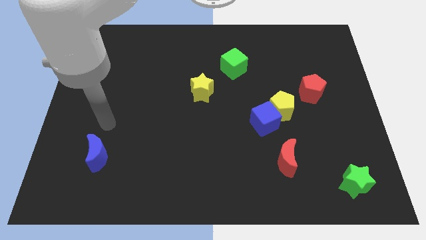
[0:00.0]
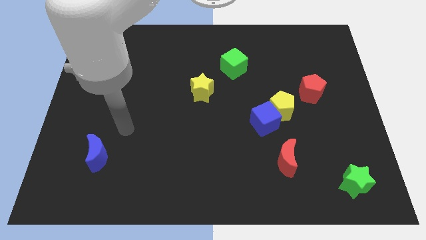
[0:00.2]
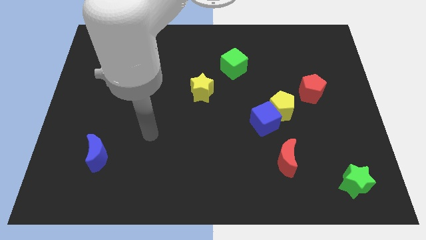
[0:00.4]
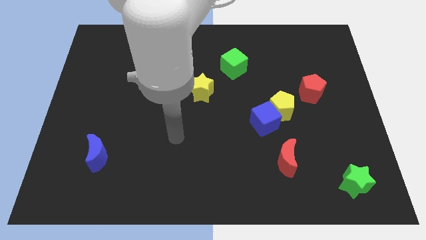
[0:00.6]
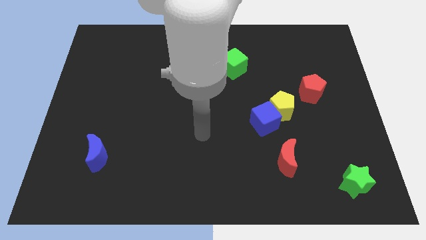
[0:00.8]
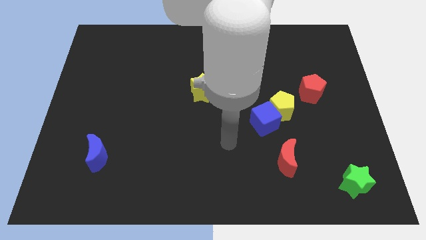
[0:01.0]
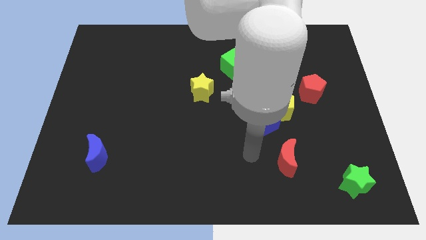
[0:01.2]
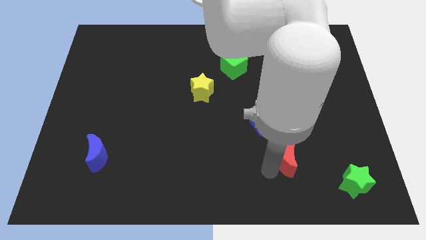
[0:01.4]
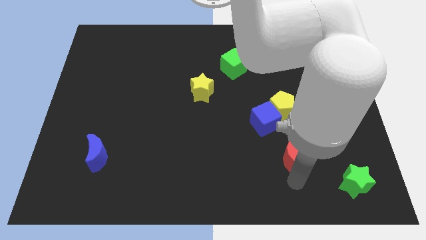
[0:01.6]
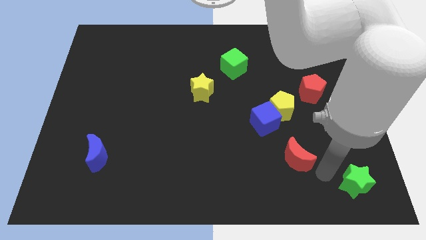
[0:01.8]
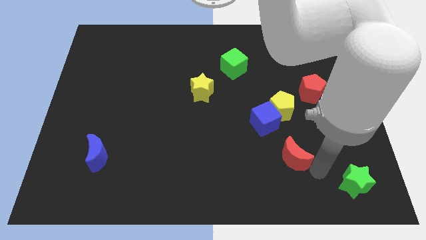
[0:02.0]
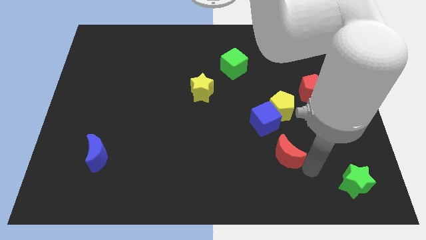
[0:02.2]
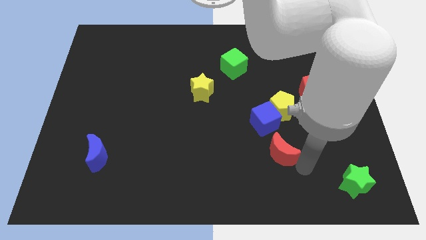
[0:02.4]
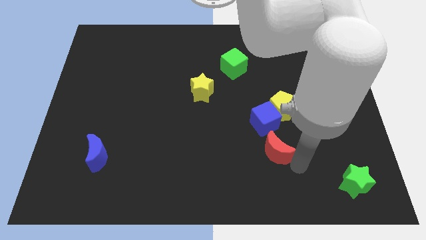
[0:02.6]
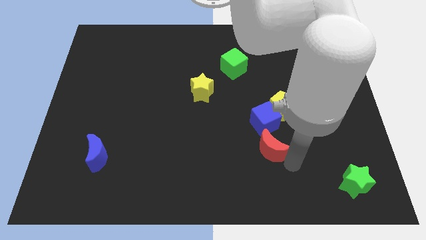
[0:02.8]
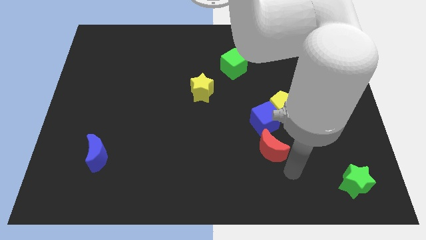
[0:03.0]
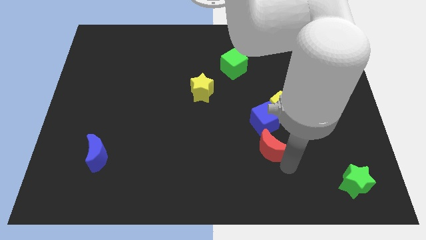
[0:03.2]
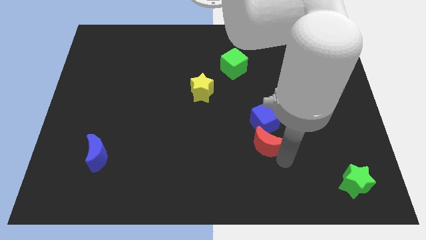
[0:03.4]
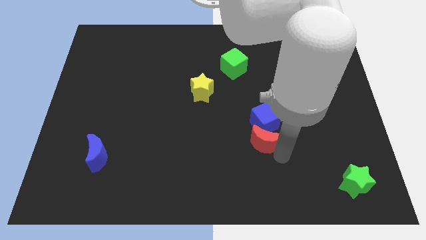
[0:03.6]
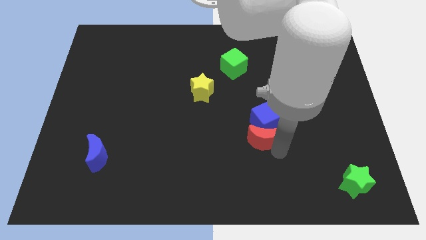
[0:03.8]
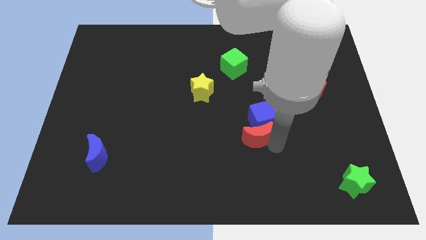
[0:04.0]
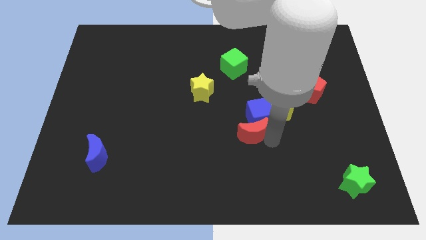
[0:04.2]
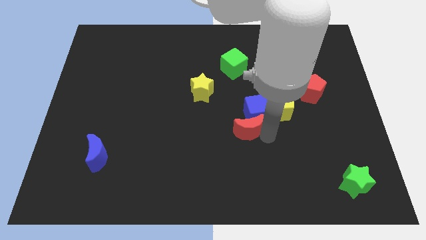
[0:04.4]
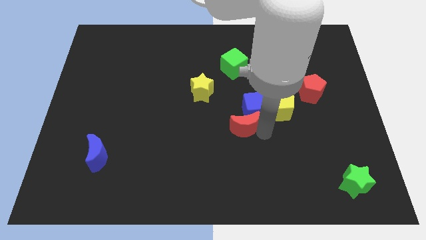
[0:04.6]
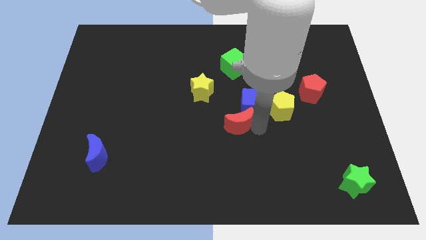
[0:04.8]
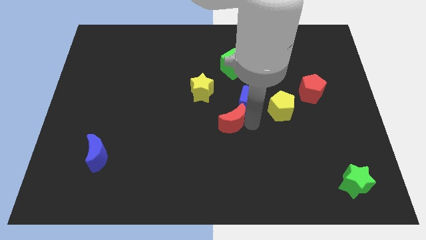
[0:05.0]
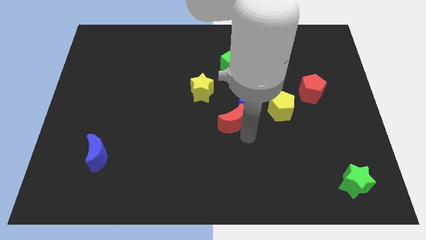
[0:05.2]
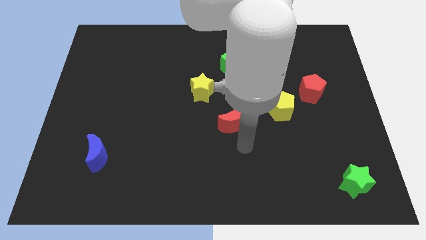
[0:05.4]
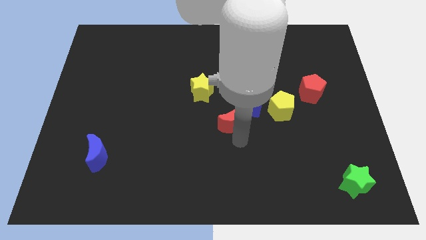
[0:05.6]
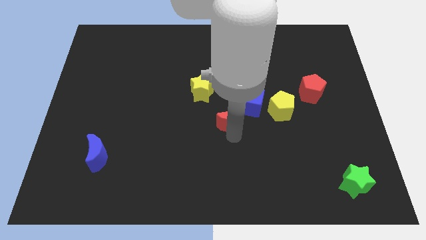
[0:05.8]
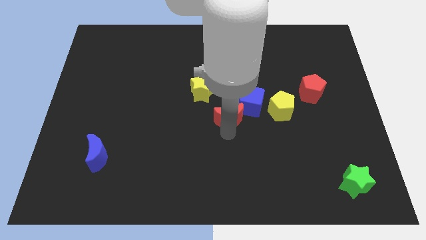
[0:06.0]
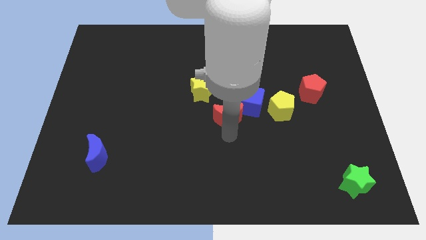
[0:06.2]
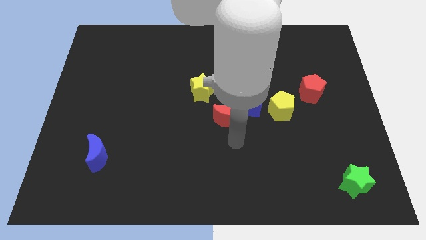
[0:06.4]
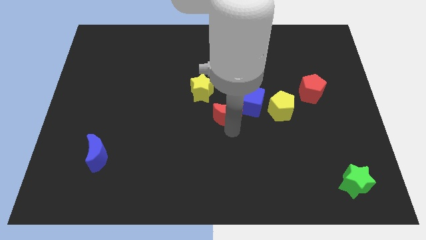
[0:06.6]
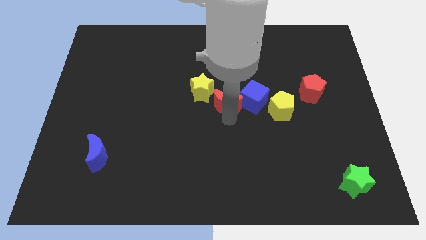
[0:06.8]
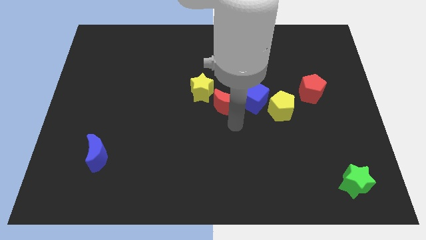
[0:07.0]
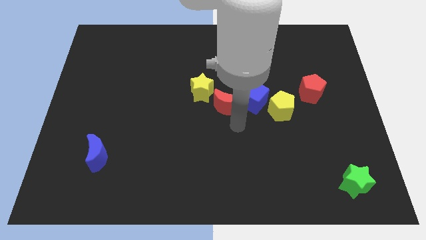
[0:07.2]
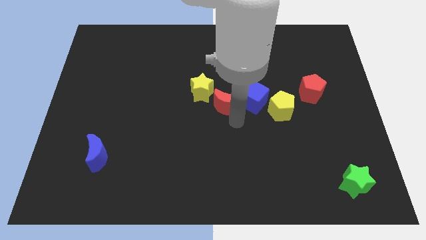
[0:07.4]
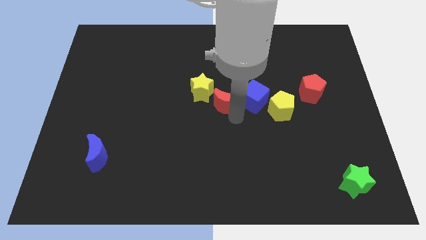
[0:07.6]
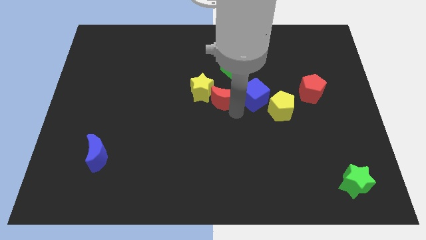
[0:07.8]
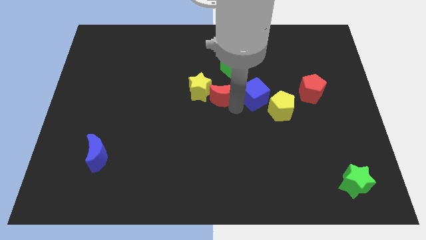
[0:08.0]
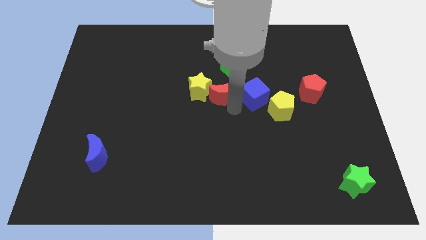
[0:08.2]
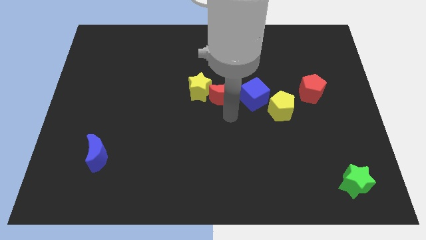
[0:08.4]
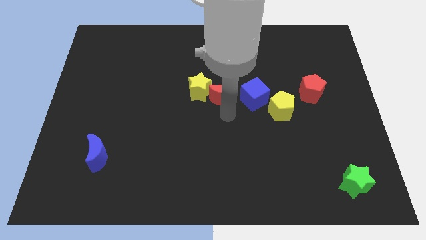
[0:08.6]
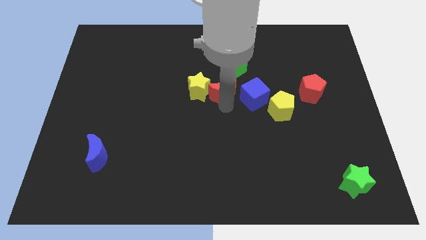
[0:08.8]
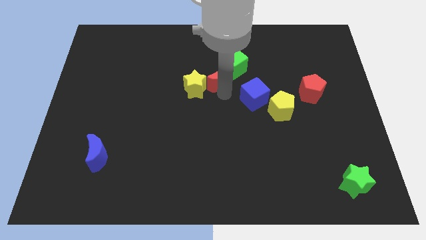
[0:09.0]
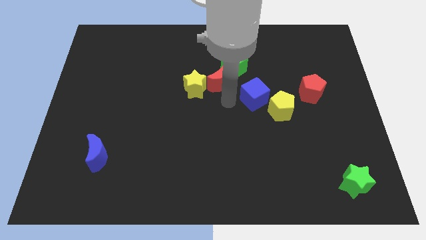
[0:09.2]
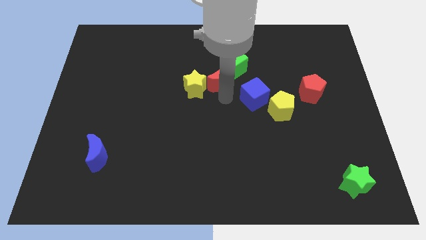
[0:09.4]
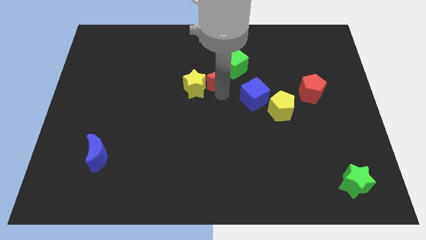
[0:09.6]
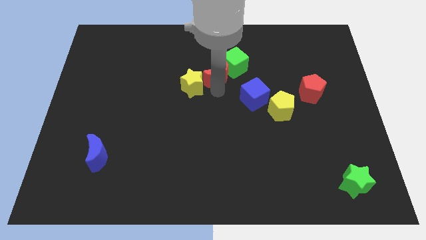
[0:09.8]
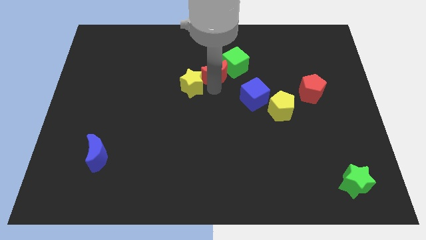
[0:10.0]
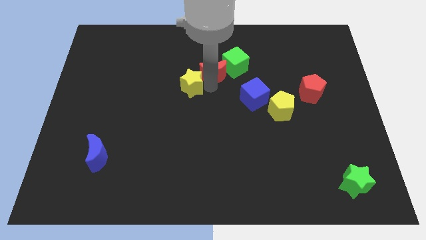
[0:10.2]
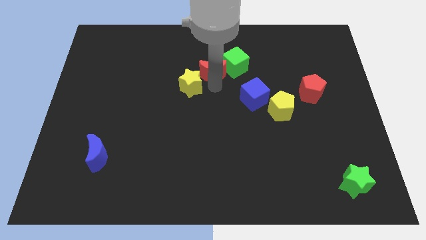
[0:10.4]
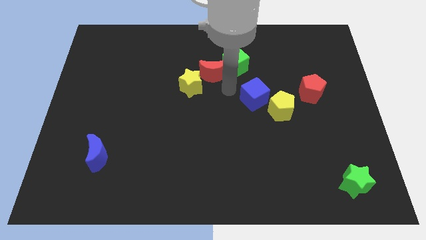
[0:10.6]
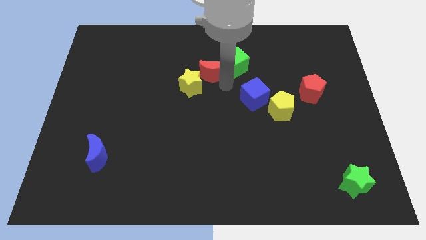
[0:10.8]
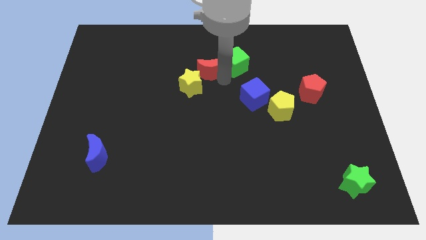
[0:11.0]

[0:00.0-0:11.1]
push the red moon to the top side of the yellow star

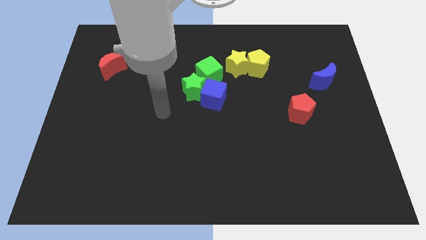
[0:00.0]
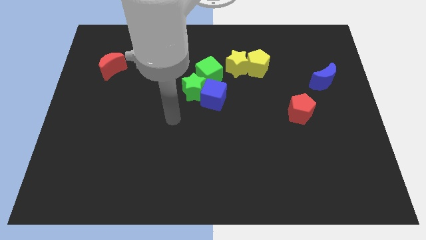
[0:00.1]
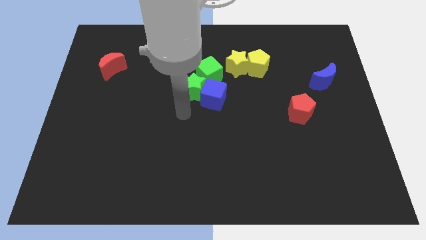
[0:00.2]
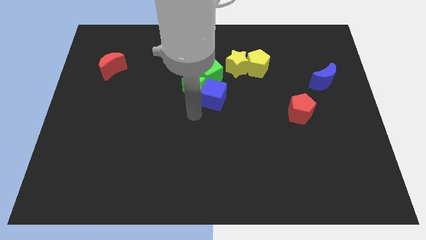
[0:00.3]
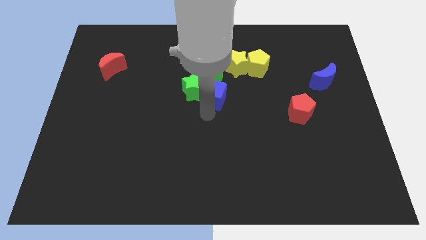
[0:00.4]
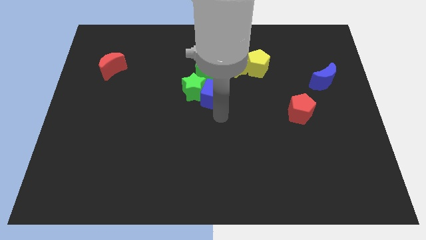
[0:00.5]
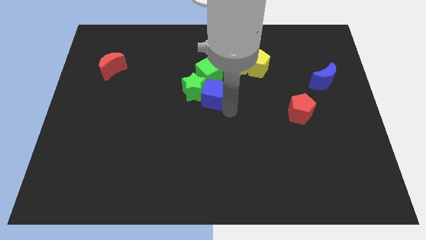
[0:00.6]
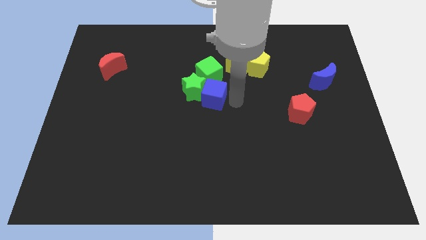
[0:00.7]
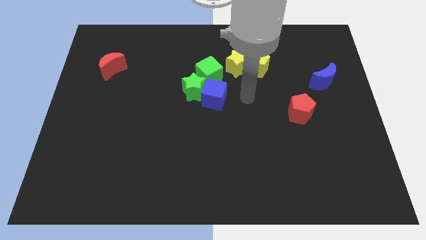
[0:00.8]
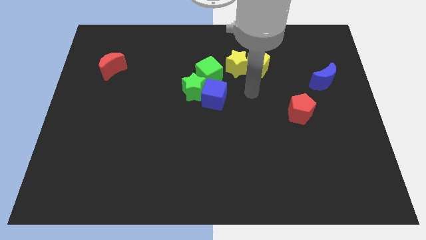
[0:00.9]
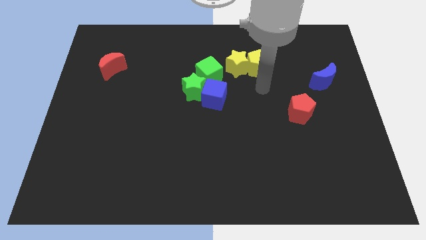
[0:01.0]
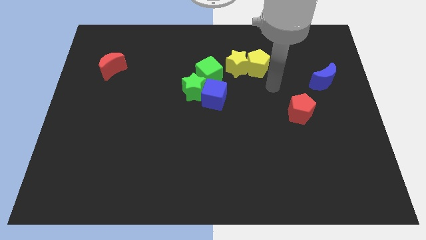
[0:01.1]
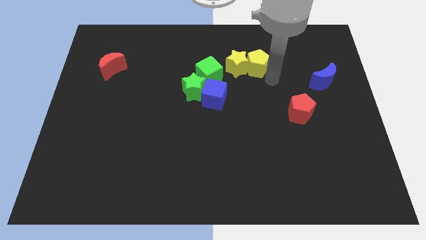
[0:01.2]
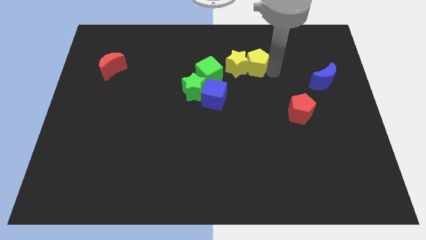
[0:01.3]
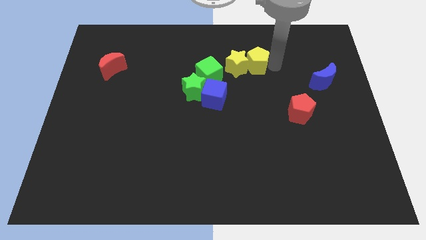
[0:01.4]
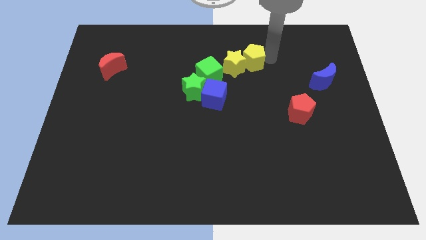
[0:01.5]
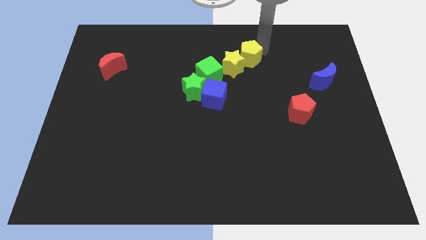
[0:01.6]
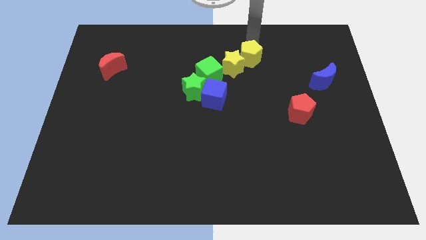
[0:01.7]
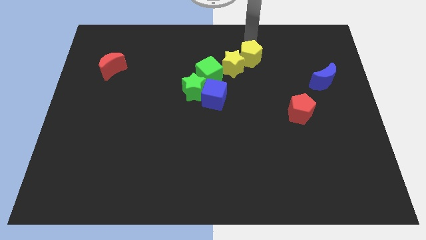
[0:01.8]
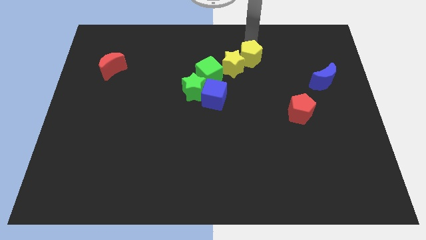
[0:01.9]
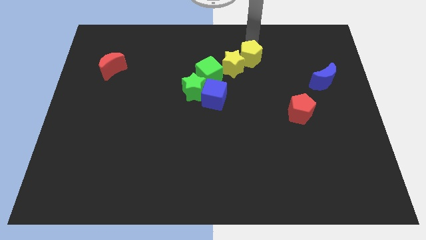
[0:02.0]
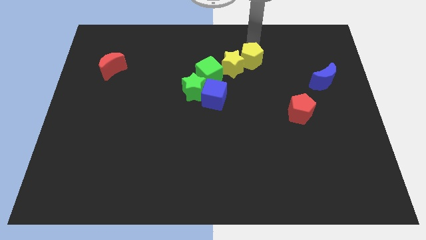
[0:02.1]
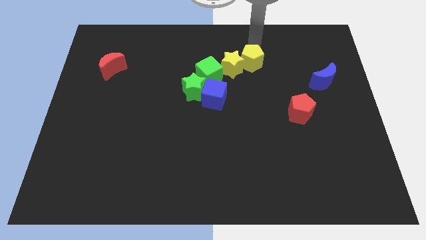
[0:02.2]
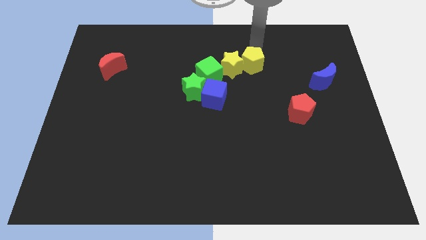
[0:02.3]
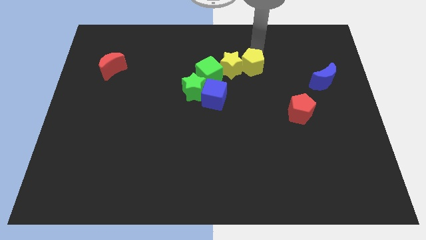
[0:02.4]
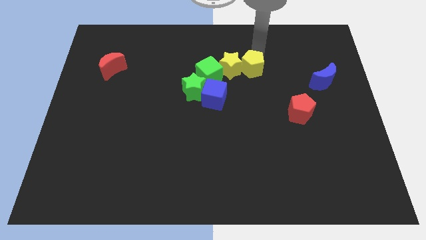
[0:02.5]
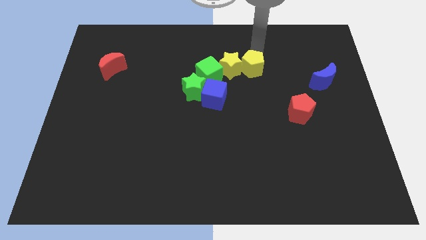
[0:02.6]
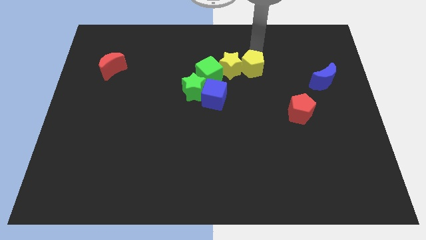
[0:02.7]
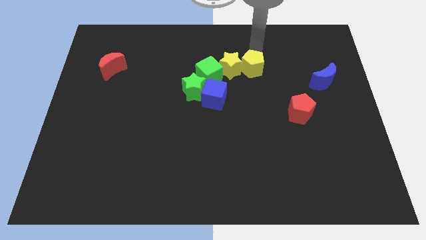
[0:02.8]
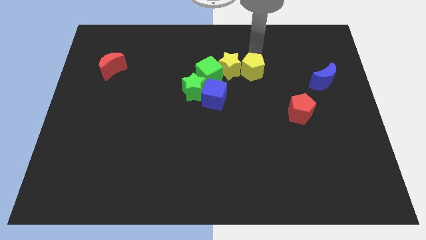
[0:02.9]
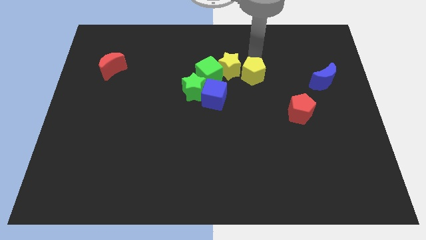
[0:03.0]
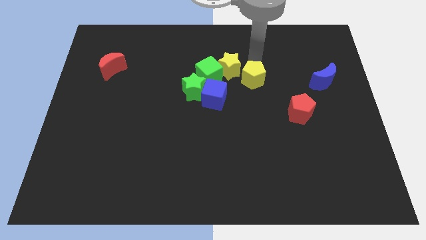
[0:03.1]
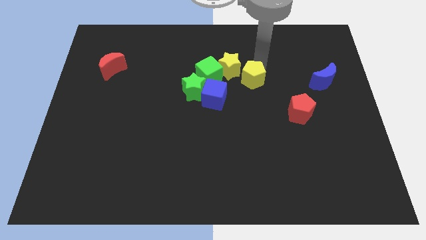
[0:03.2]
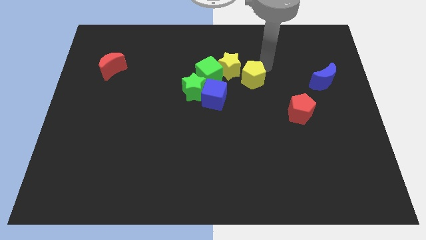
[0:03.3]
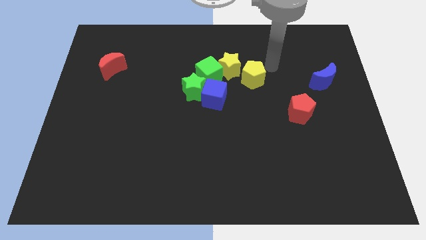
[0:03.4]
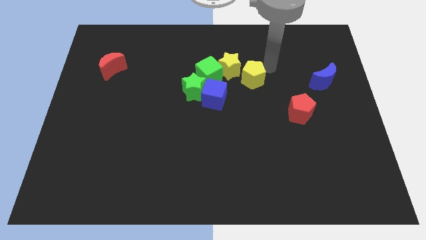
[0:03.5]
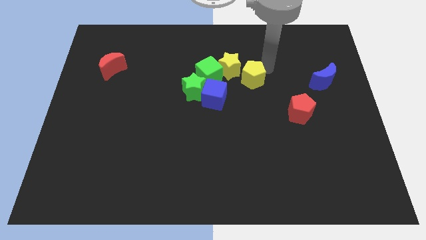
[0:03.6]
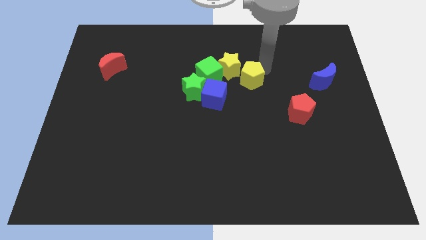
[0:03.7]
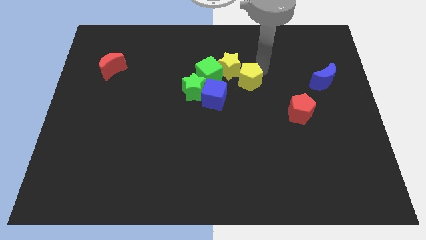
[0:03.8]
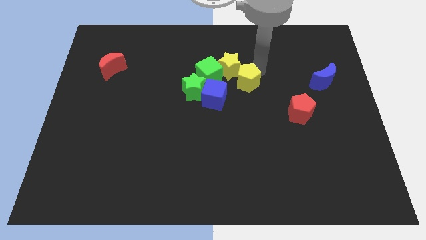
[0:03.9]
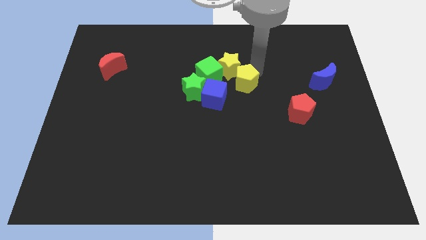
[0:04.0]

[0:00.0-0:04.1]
put the yellow pentagon diagonally down and to the right of the green cube
